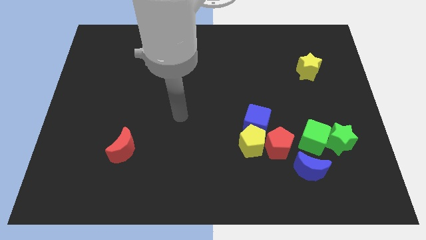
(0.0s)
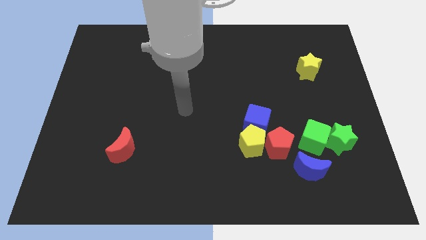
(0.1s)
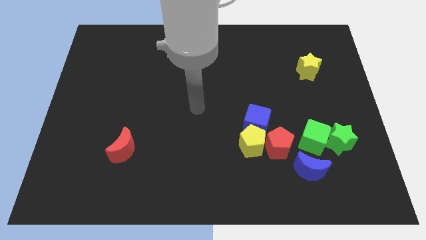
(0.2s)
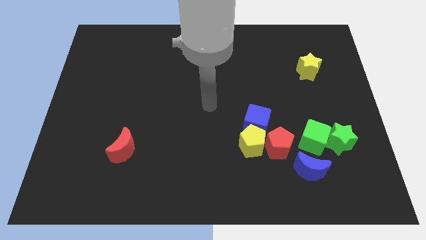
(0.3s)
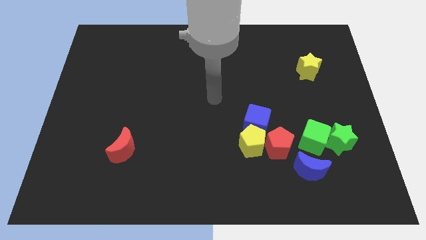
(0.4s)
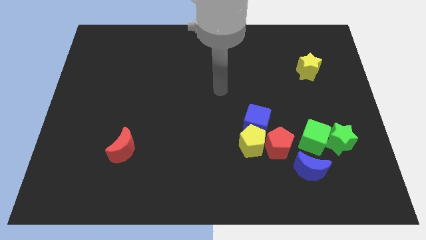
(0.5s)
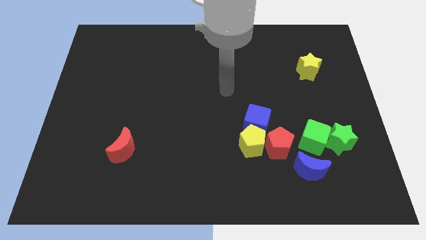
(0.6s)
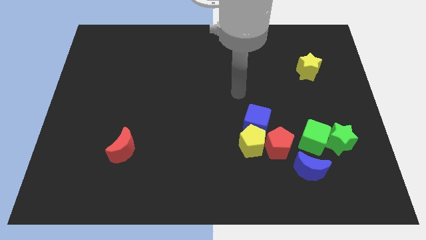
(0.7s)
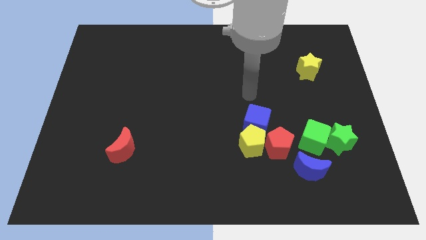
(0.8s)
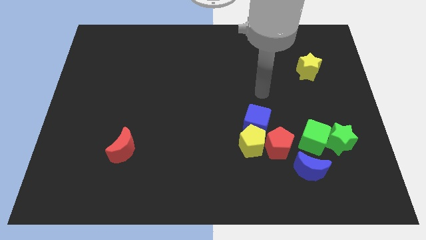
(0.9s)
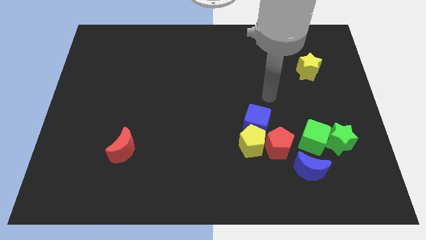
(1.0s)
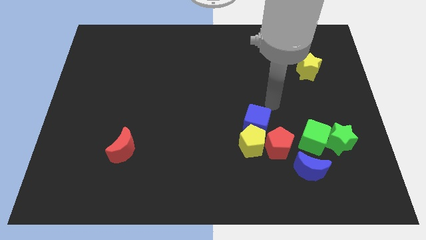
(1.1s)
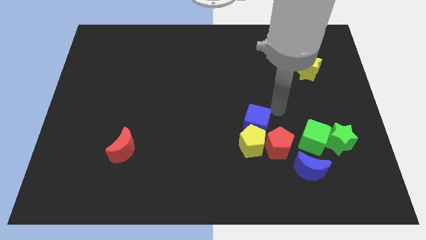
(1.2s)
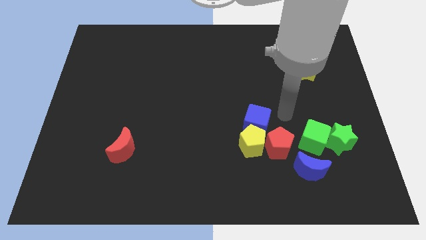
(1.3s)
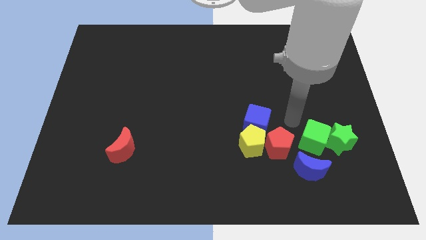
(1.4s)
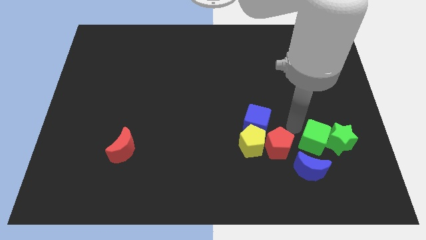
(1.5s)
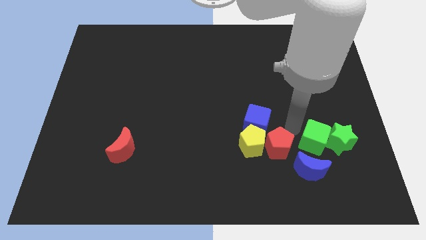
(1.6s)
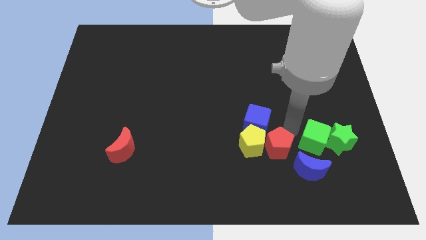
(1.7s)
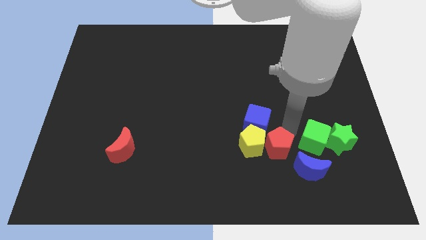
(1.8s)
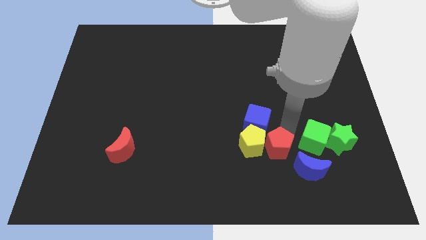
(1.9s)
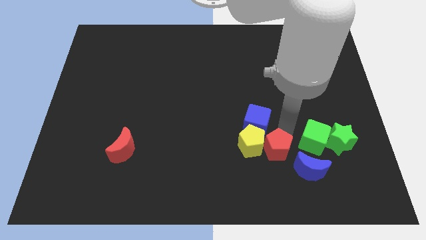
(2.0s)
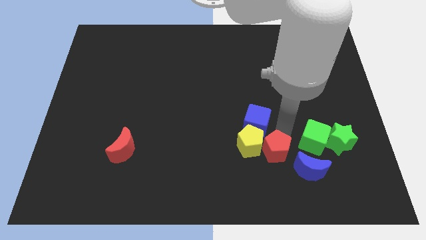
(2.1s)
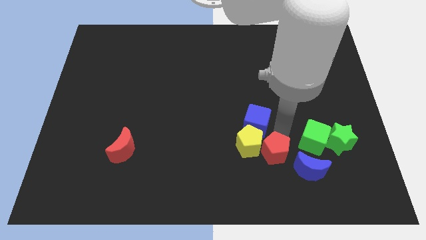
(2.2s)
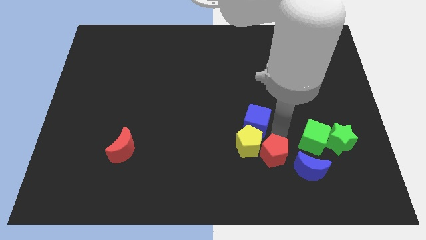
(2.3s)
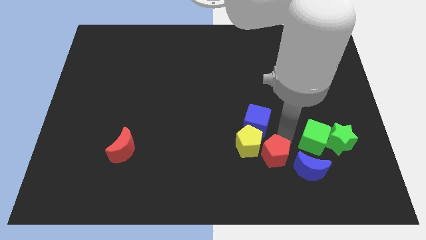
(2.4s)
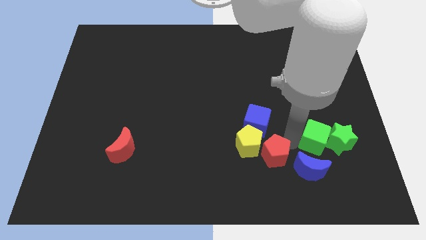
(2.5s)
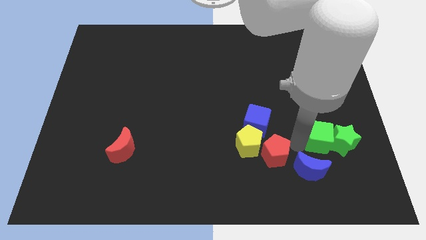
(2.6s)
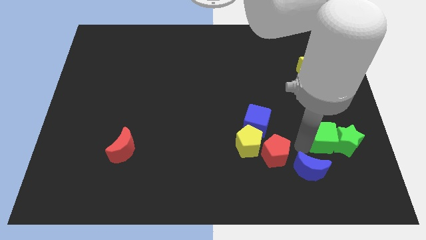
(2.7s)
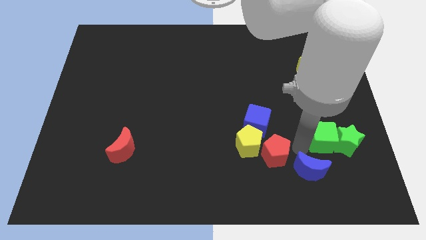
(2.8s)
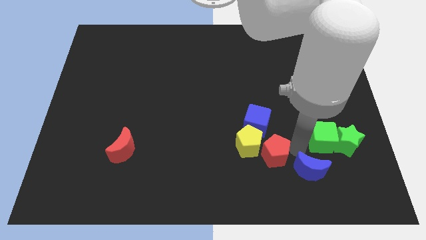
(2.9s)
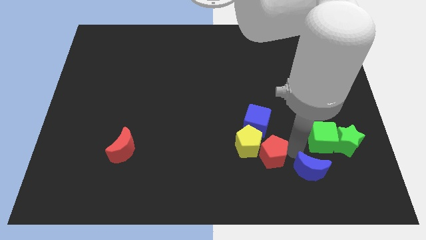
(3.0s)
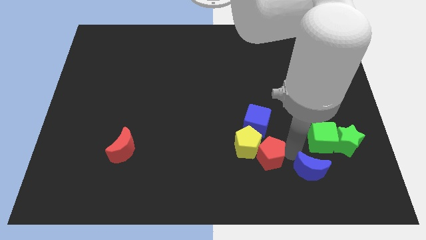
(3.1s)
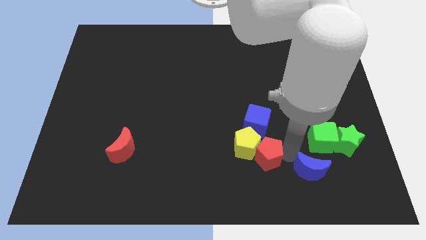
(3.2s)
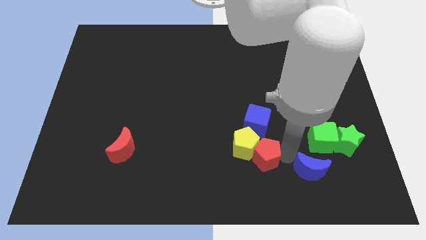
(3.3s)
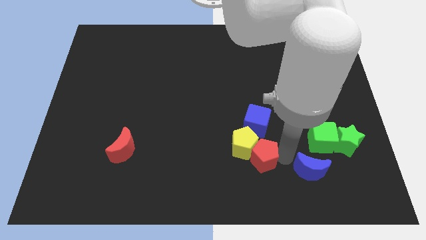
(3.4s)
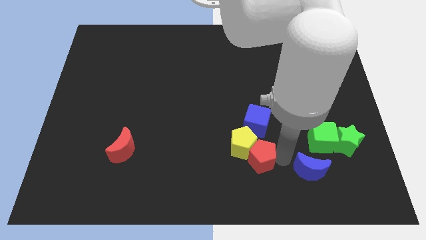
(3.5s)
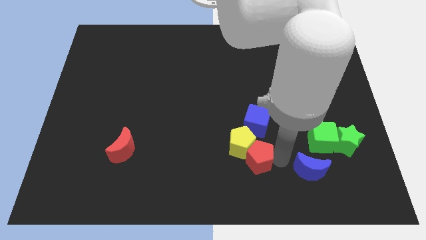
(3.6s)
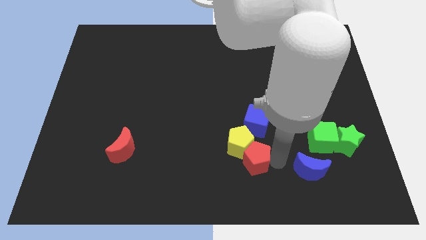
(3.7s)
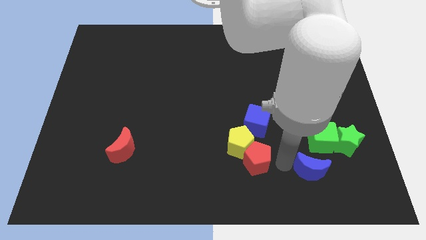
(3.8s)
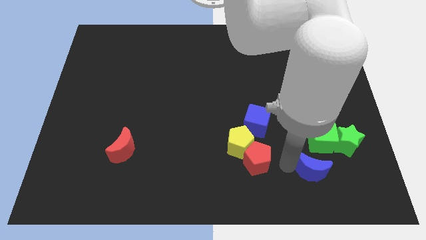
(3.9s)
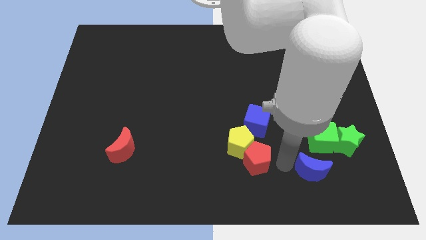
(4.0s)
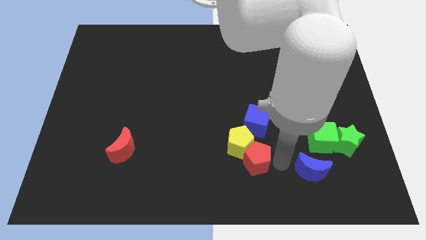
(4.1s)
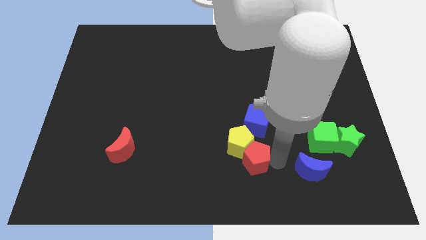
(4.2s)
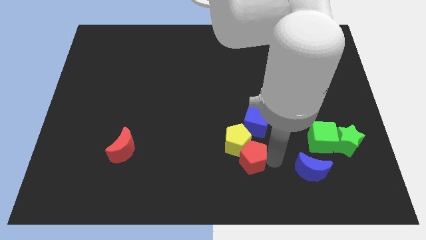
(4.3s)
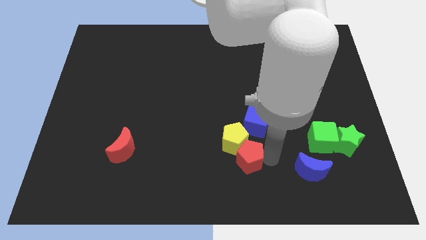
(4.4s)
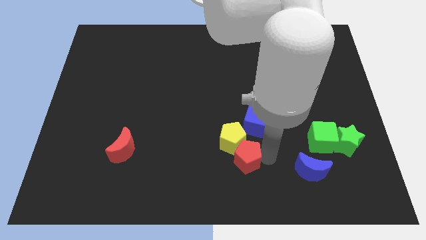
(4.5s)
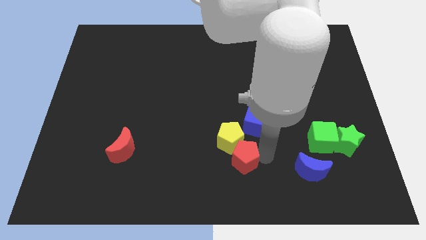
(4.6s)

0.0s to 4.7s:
slightly push the red pentagon to the left

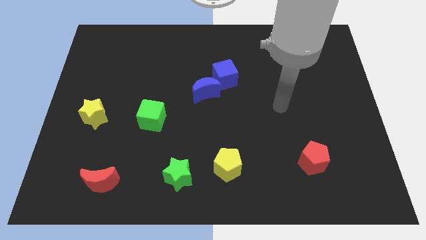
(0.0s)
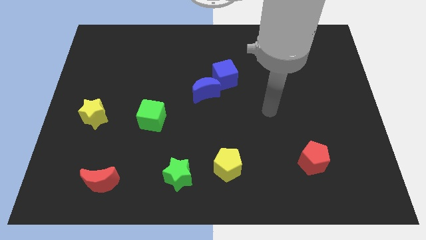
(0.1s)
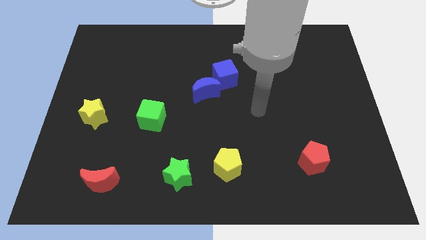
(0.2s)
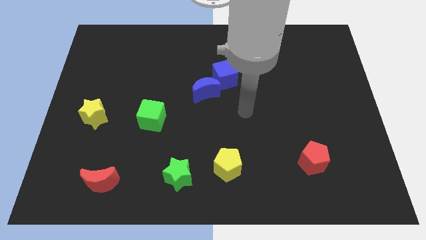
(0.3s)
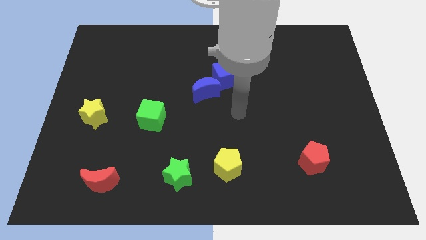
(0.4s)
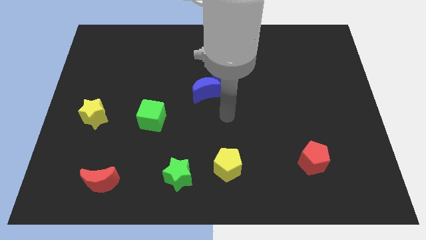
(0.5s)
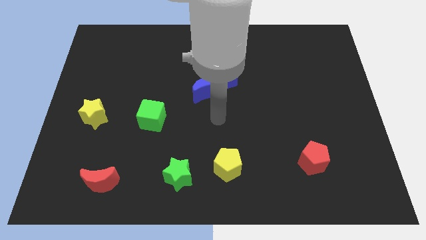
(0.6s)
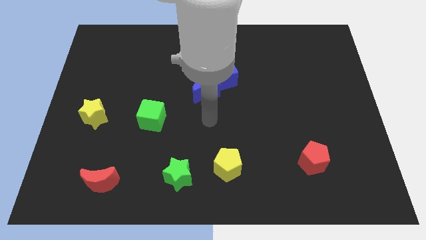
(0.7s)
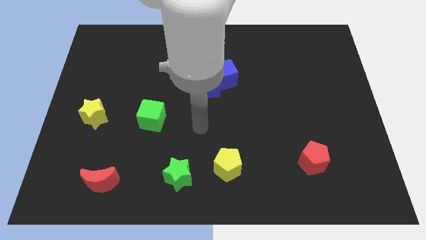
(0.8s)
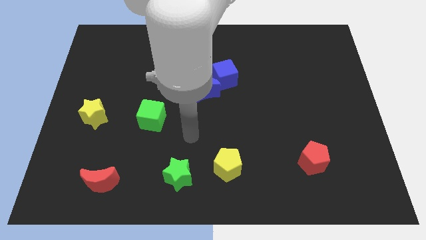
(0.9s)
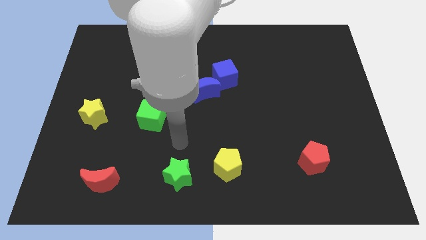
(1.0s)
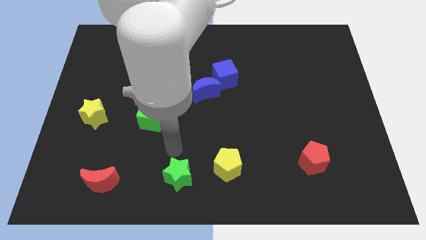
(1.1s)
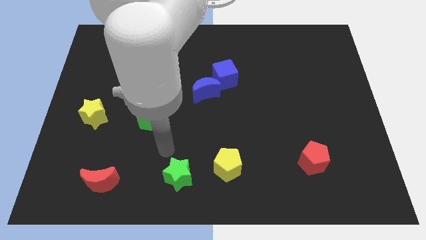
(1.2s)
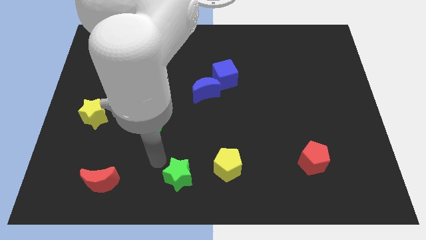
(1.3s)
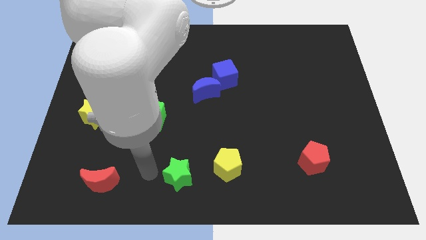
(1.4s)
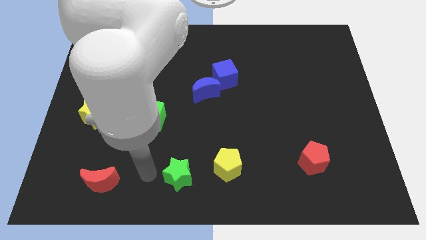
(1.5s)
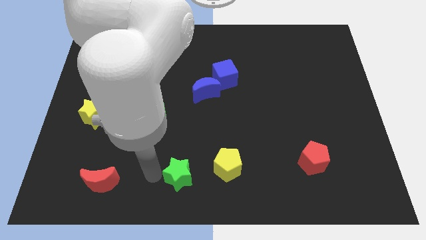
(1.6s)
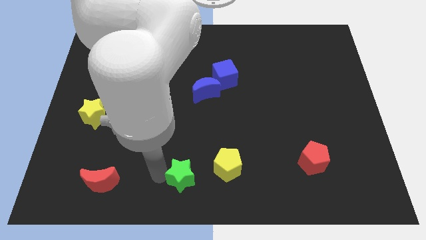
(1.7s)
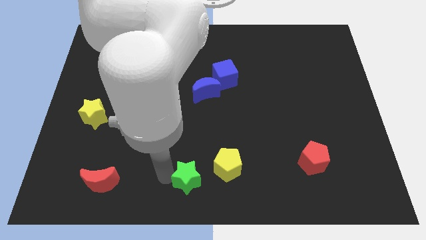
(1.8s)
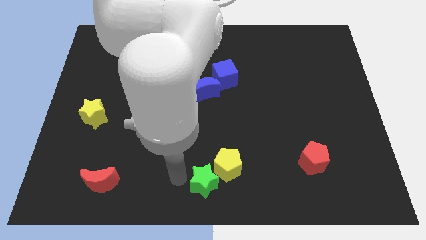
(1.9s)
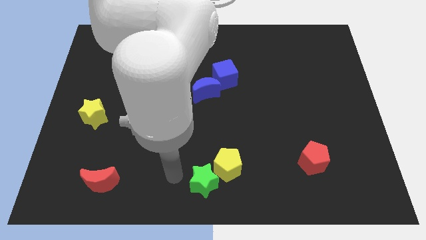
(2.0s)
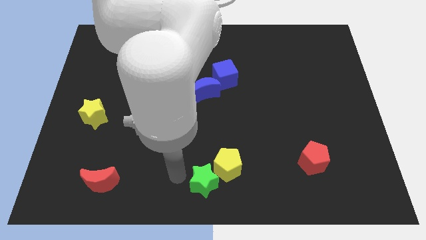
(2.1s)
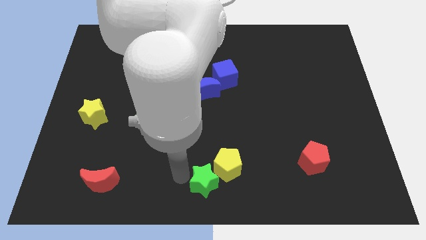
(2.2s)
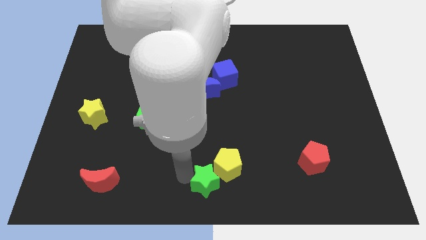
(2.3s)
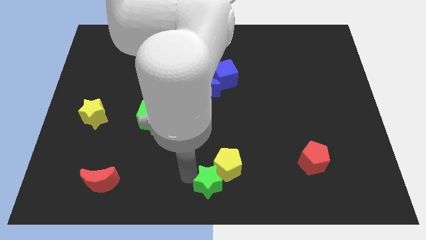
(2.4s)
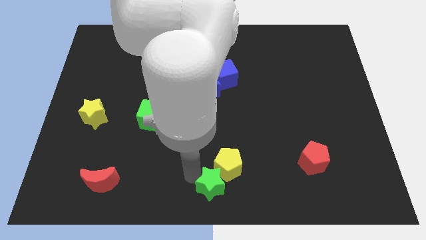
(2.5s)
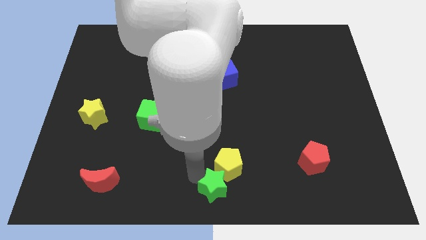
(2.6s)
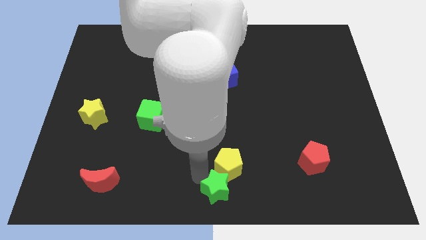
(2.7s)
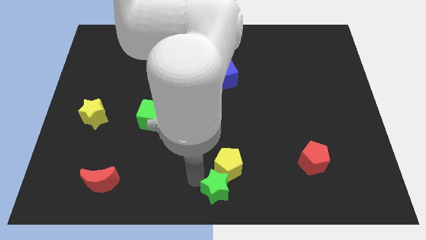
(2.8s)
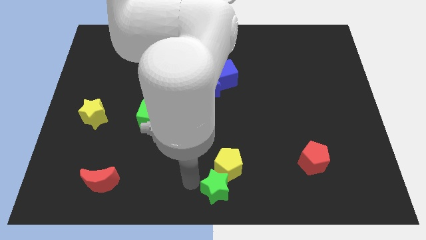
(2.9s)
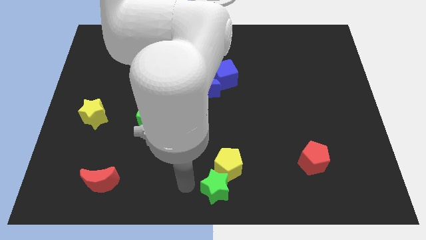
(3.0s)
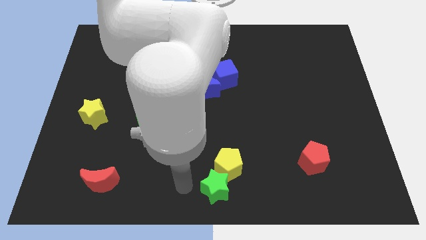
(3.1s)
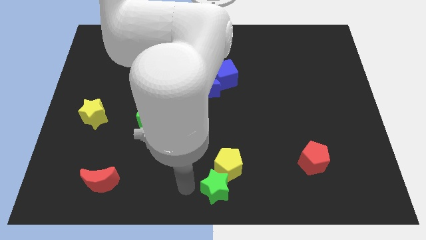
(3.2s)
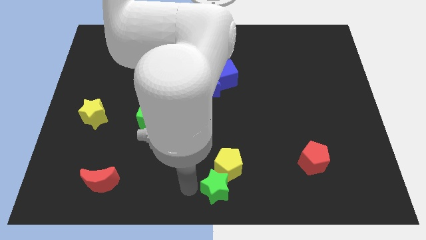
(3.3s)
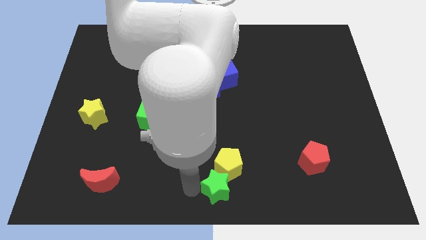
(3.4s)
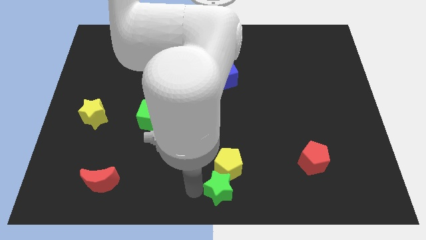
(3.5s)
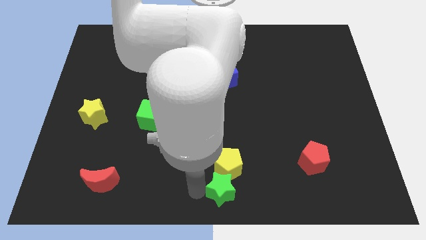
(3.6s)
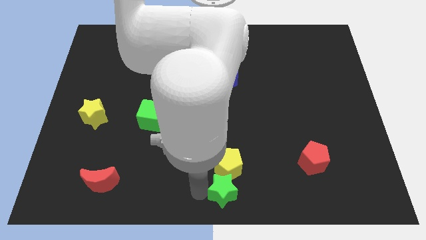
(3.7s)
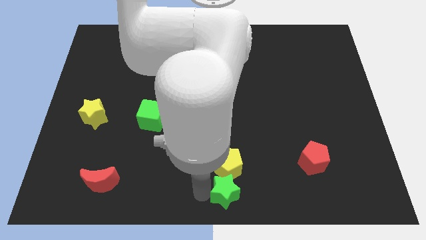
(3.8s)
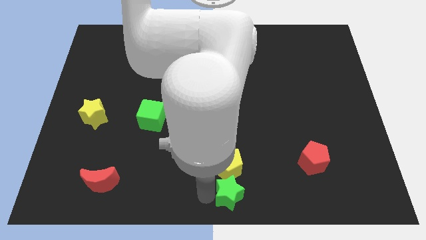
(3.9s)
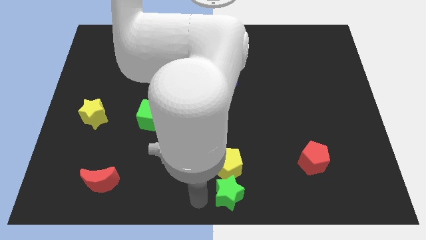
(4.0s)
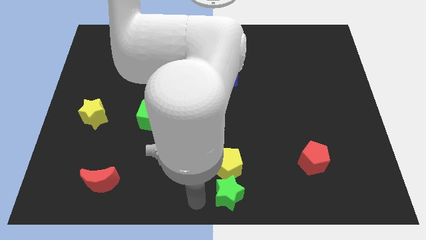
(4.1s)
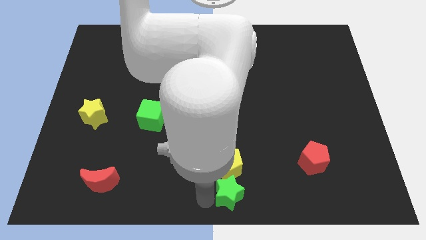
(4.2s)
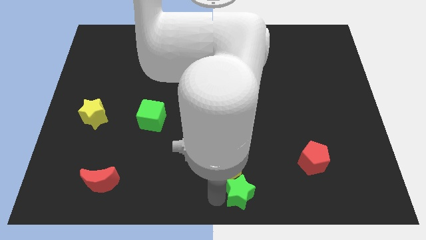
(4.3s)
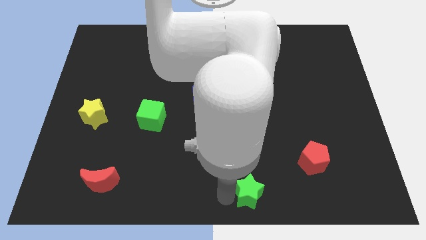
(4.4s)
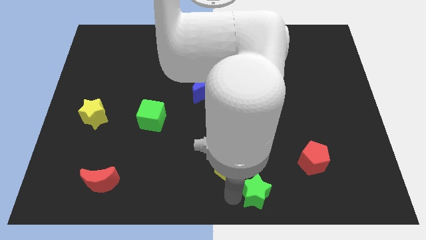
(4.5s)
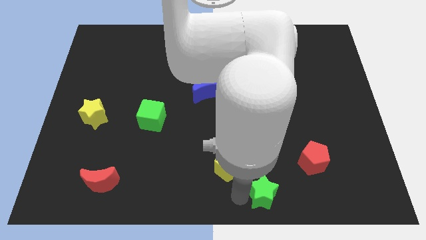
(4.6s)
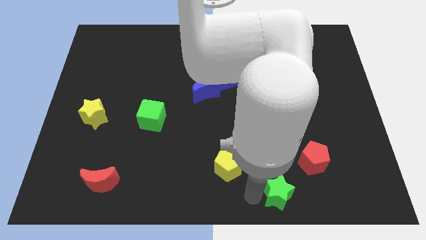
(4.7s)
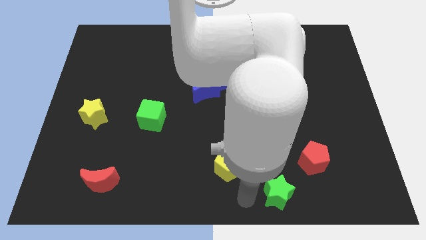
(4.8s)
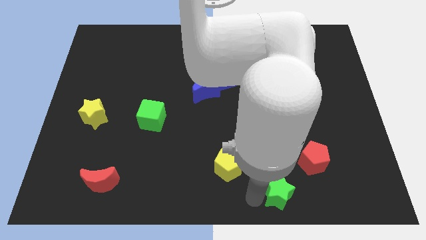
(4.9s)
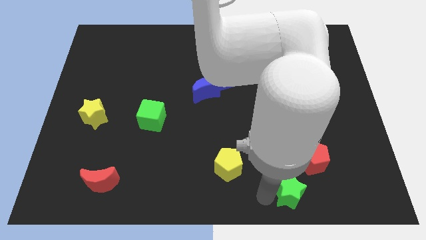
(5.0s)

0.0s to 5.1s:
push the green star to the right
